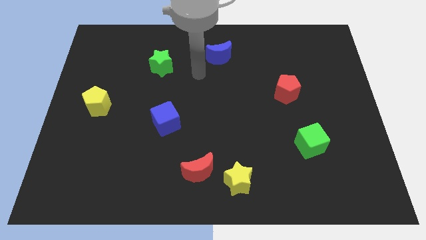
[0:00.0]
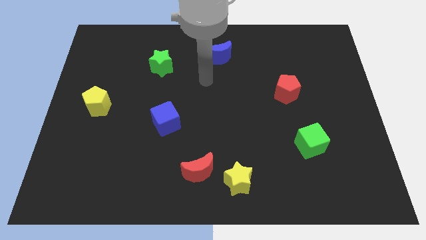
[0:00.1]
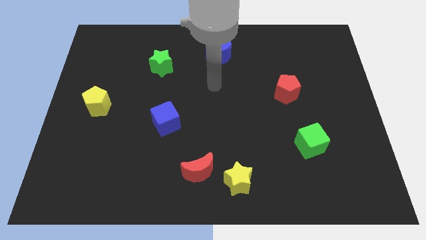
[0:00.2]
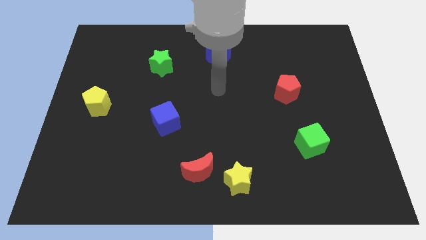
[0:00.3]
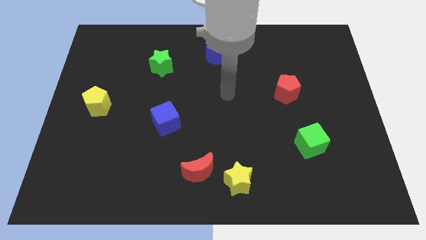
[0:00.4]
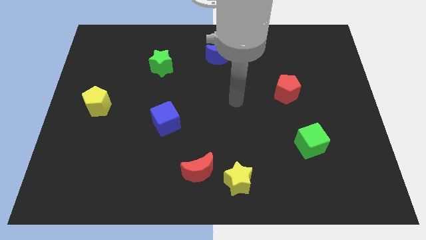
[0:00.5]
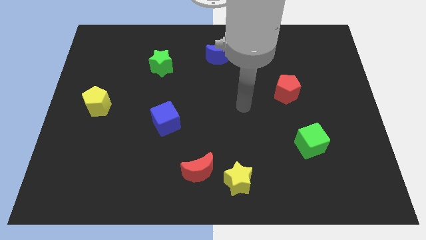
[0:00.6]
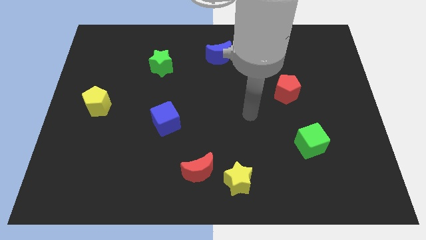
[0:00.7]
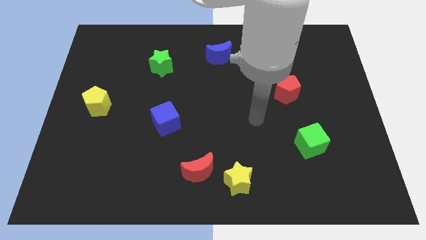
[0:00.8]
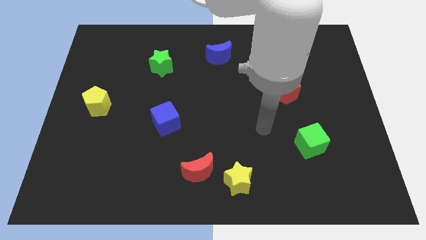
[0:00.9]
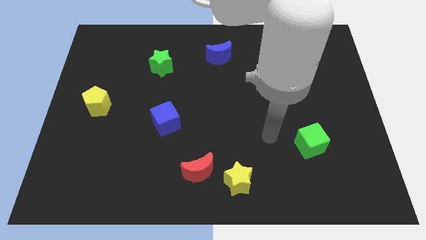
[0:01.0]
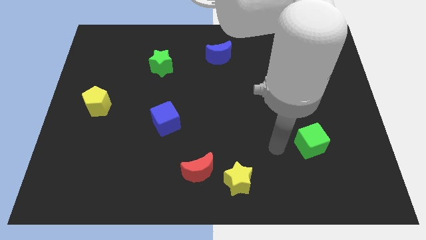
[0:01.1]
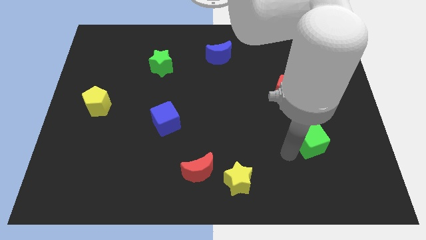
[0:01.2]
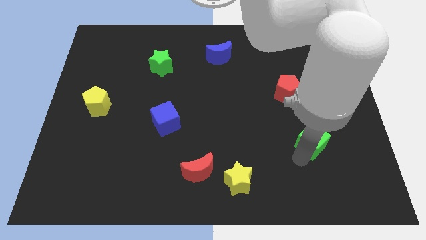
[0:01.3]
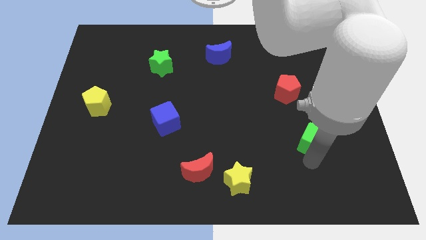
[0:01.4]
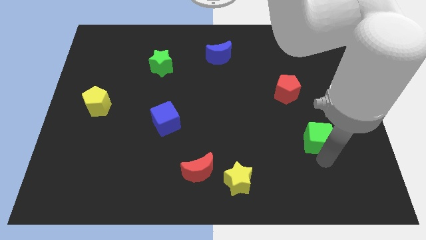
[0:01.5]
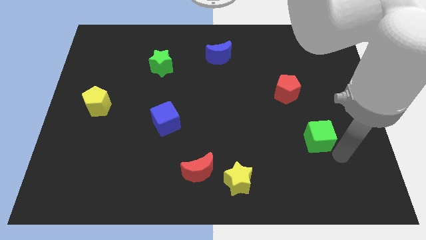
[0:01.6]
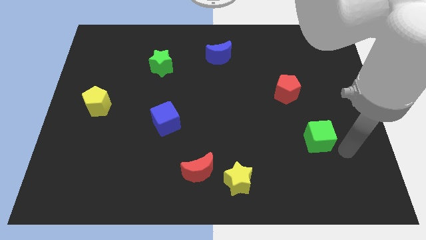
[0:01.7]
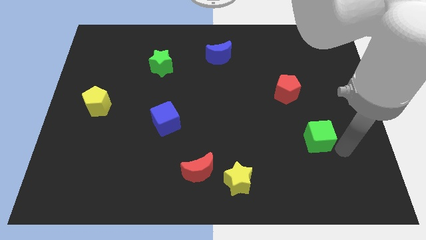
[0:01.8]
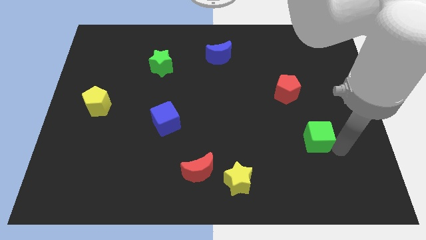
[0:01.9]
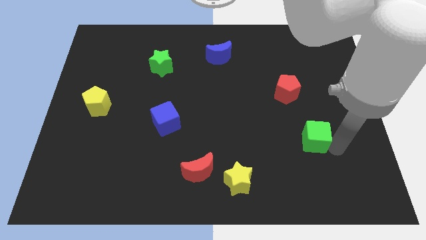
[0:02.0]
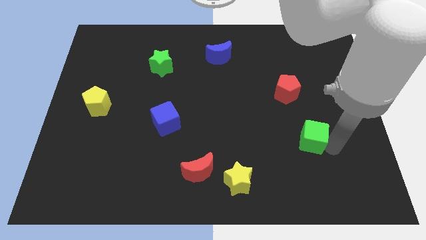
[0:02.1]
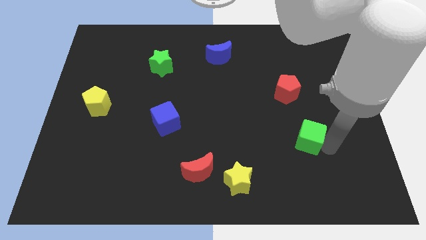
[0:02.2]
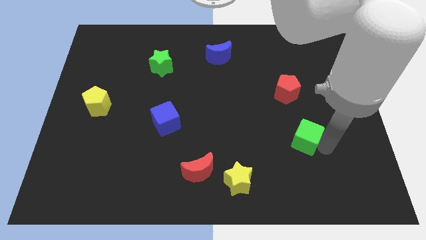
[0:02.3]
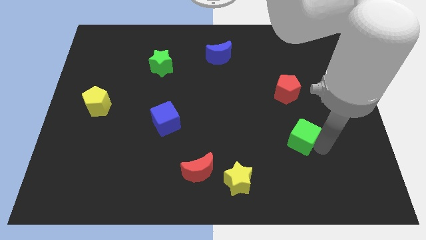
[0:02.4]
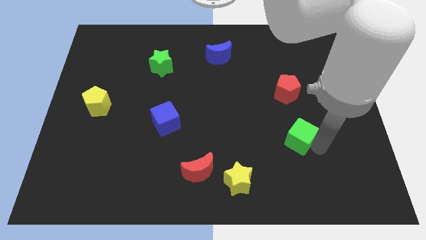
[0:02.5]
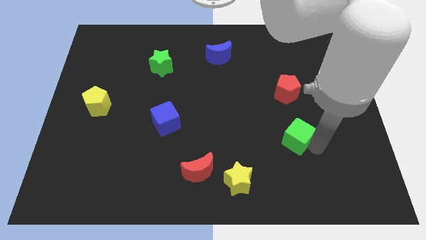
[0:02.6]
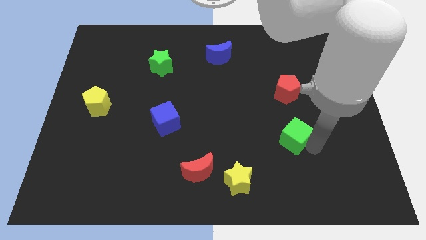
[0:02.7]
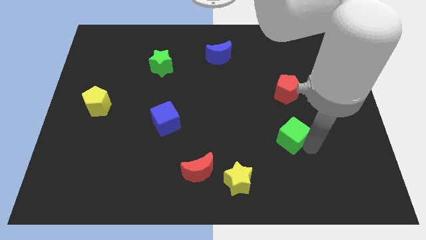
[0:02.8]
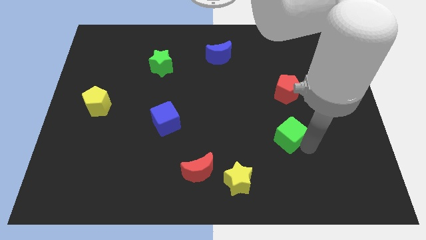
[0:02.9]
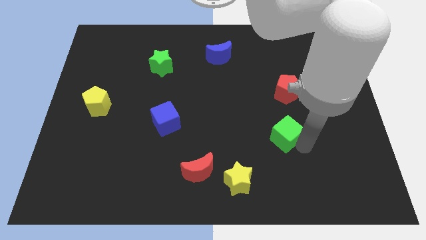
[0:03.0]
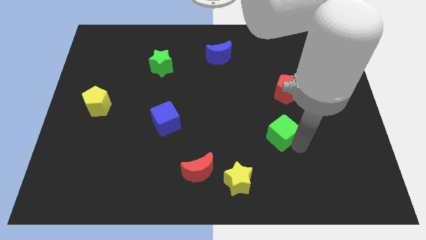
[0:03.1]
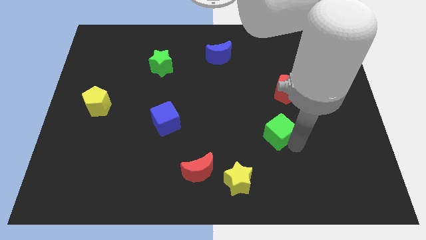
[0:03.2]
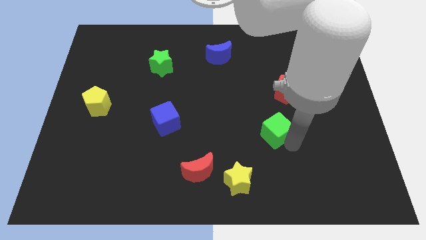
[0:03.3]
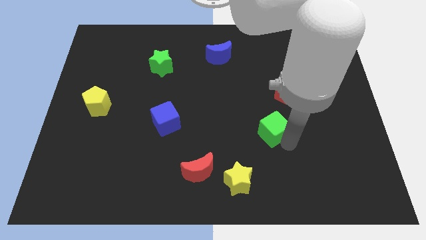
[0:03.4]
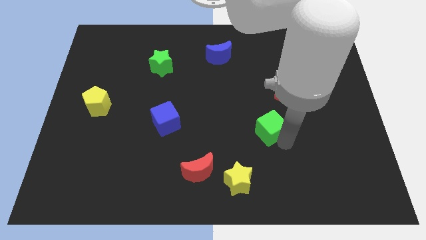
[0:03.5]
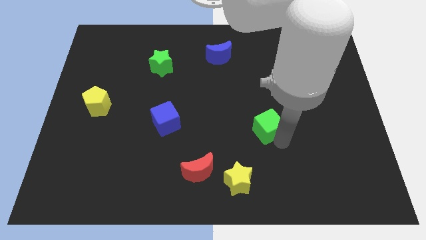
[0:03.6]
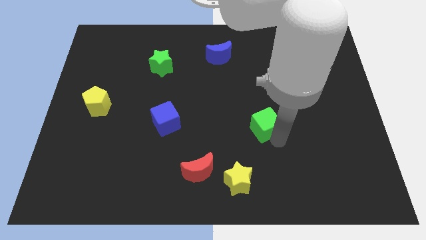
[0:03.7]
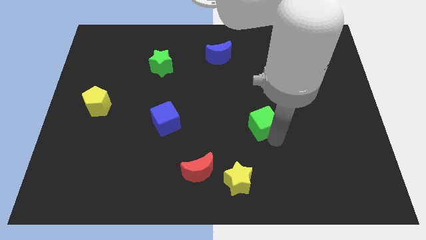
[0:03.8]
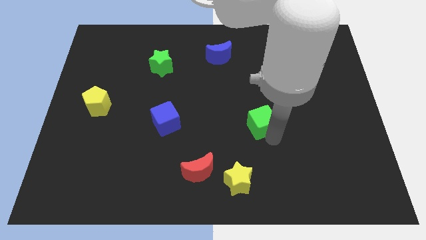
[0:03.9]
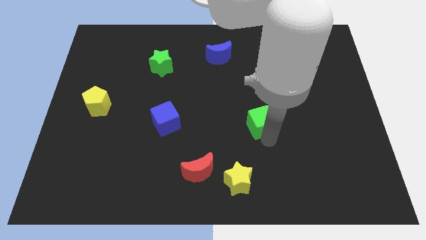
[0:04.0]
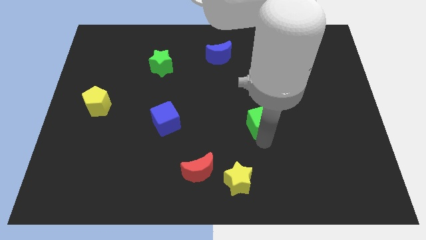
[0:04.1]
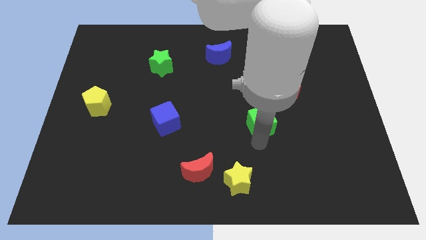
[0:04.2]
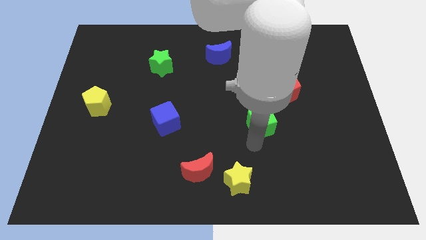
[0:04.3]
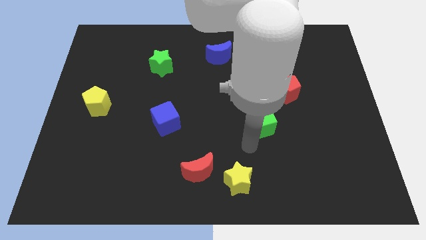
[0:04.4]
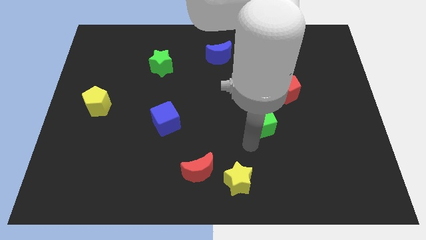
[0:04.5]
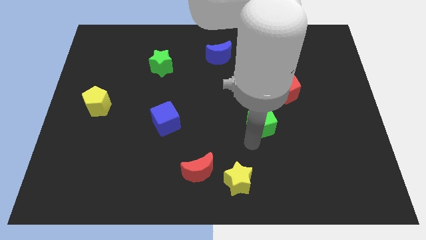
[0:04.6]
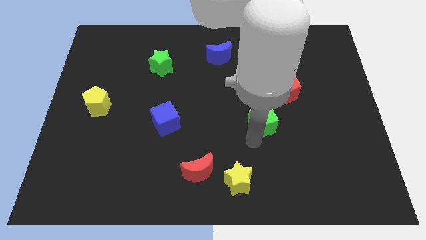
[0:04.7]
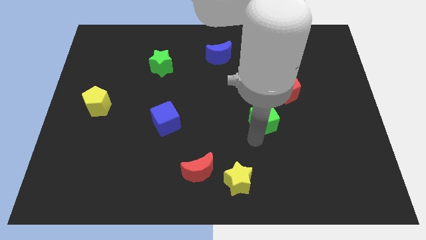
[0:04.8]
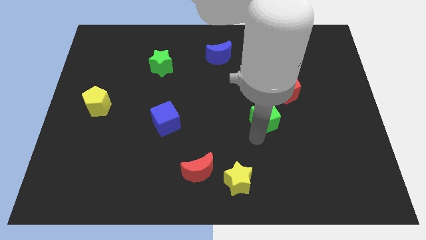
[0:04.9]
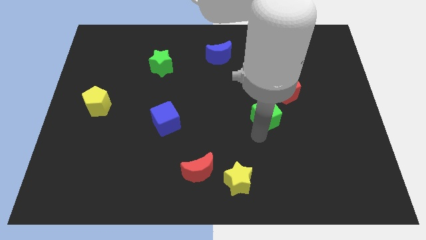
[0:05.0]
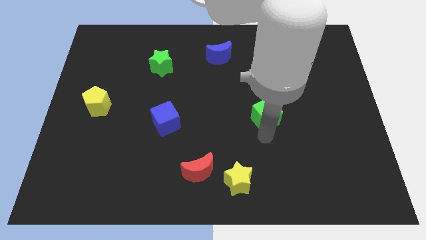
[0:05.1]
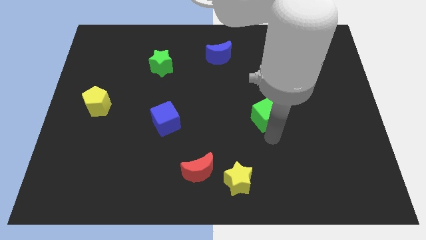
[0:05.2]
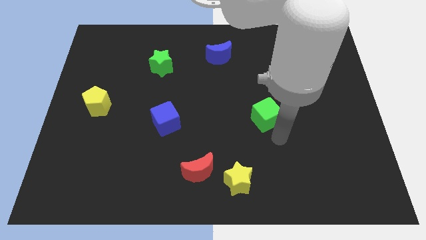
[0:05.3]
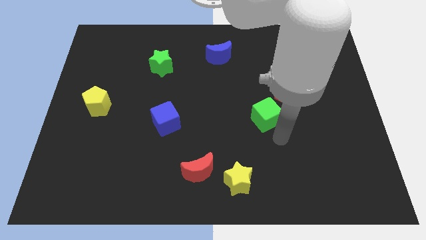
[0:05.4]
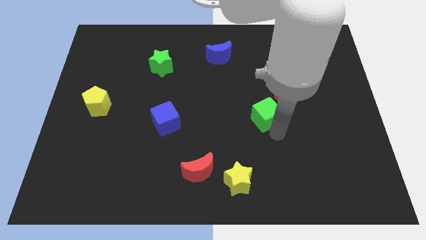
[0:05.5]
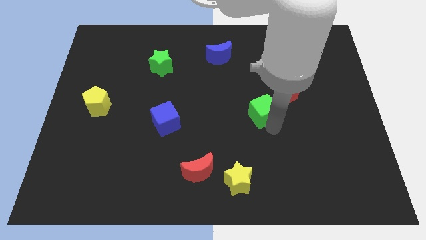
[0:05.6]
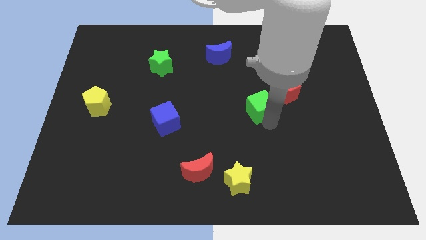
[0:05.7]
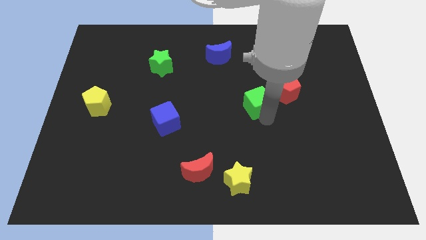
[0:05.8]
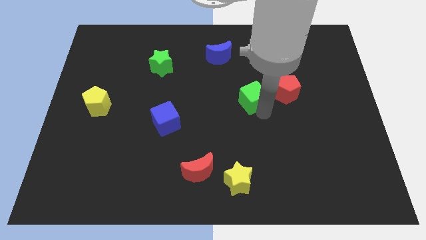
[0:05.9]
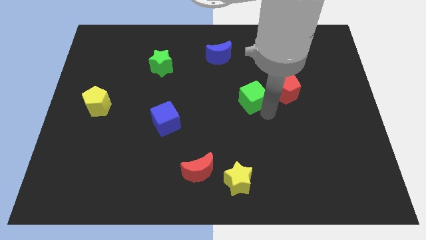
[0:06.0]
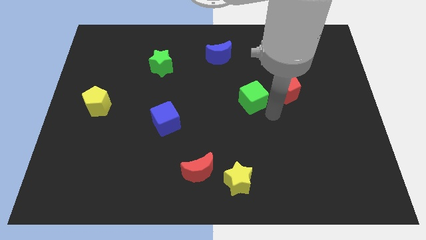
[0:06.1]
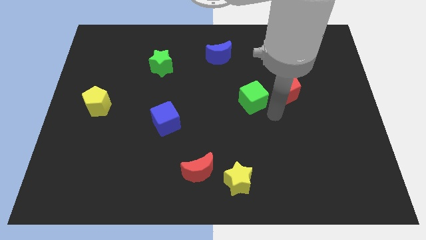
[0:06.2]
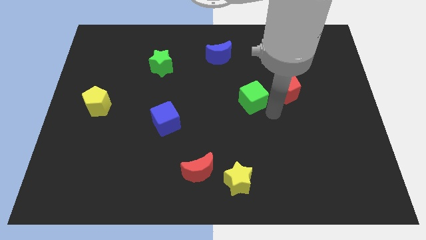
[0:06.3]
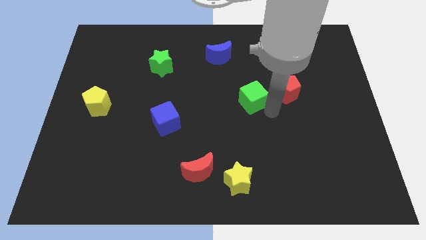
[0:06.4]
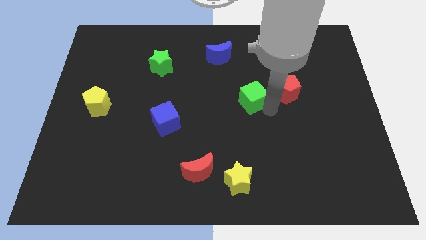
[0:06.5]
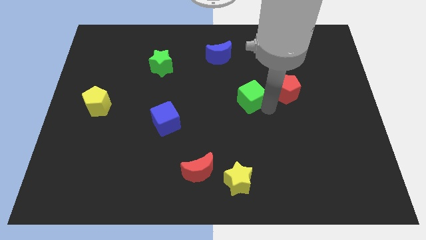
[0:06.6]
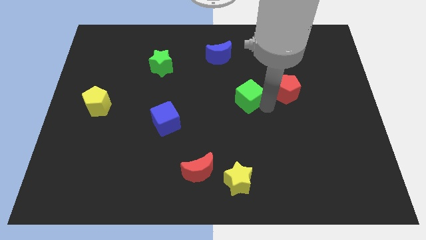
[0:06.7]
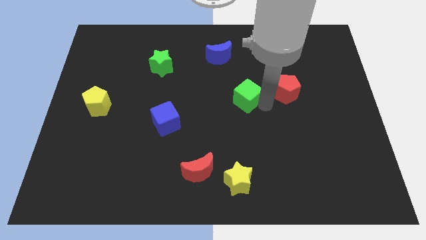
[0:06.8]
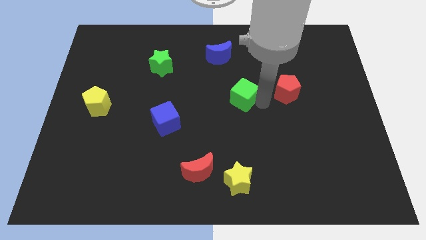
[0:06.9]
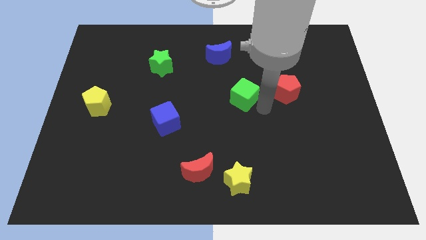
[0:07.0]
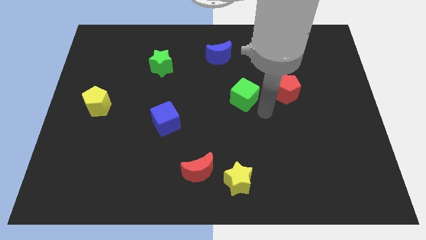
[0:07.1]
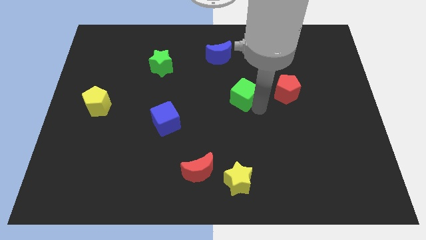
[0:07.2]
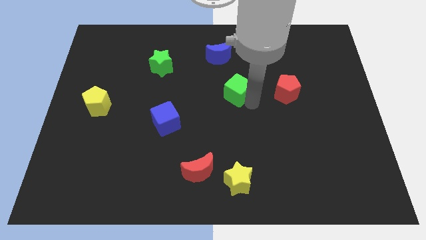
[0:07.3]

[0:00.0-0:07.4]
slide the green cube diagonally up and to the left

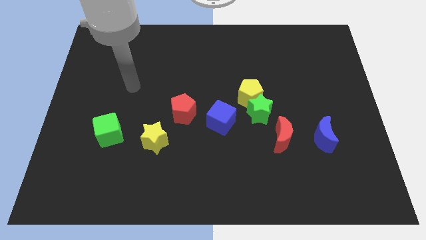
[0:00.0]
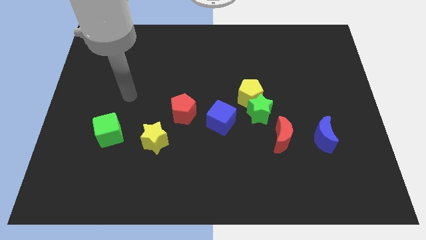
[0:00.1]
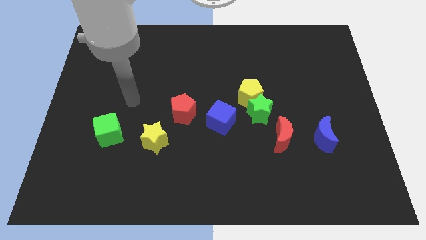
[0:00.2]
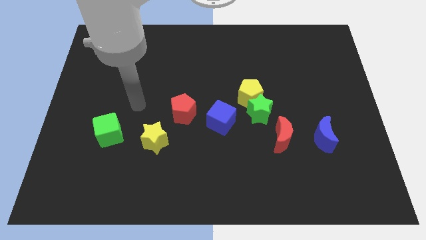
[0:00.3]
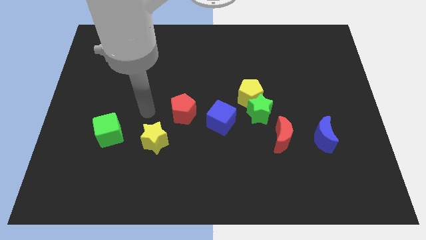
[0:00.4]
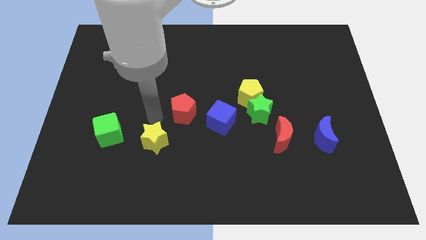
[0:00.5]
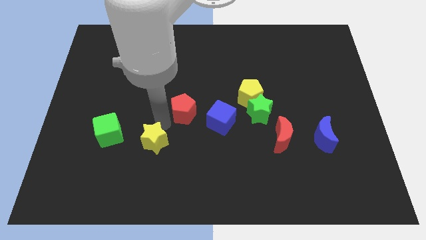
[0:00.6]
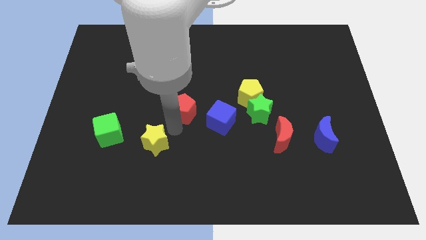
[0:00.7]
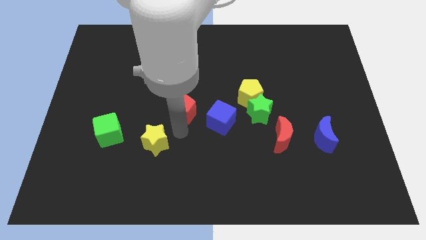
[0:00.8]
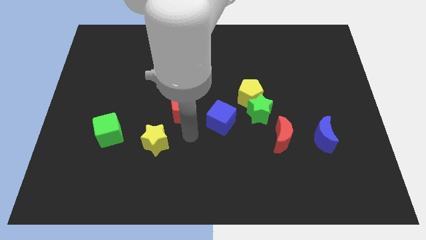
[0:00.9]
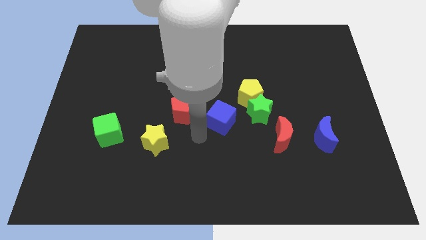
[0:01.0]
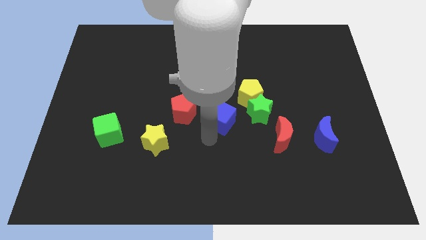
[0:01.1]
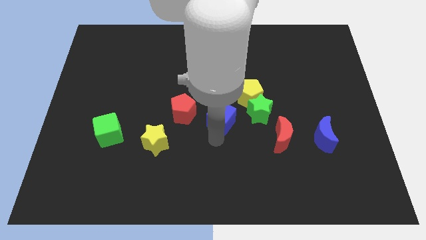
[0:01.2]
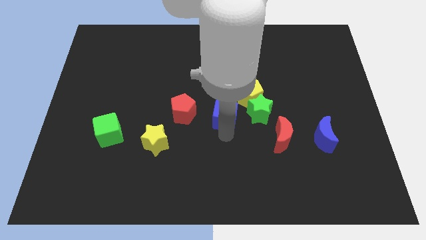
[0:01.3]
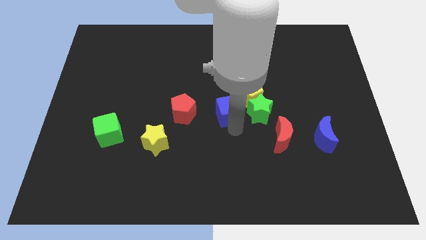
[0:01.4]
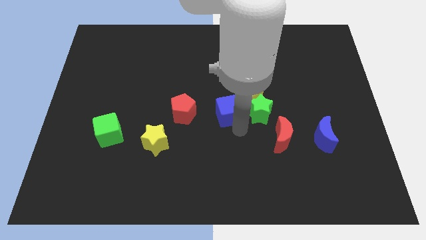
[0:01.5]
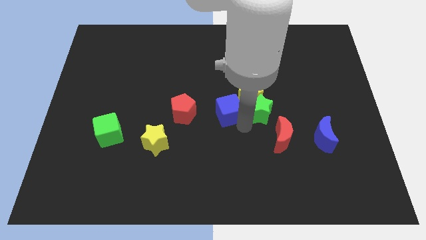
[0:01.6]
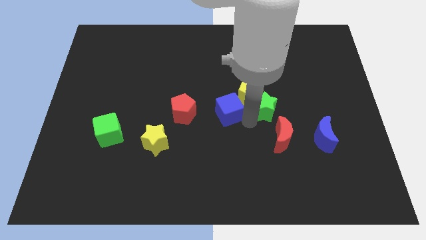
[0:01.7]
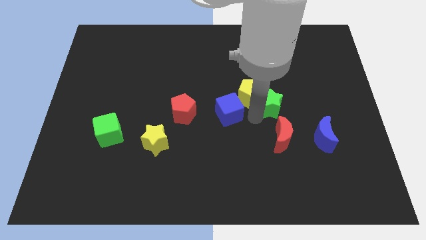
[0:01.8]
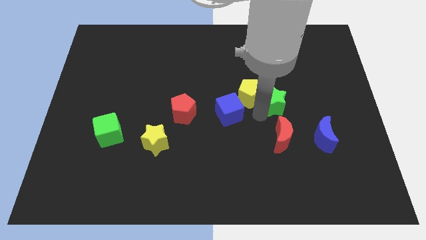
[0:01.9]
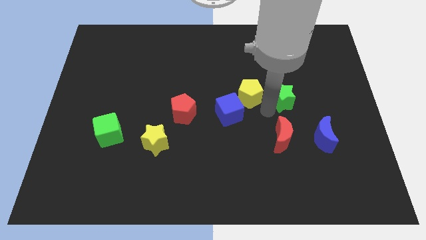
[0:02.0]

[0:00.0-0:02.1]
slightly slide the green star upwards and right
